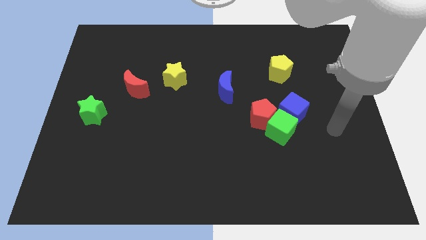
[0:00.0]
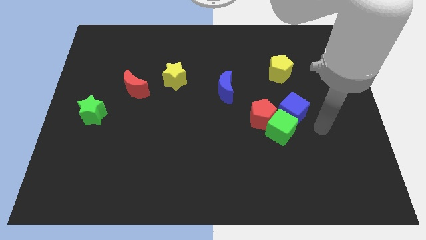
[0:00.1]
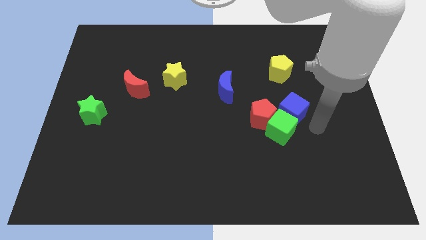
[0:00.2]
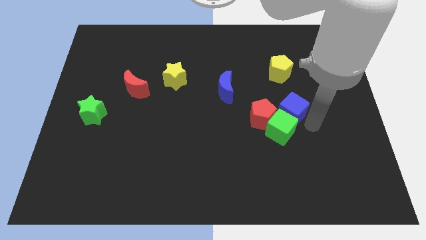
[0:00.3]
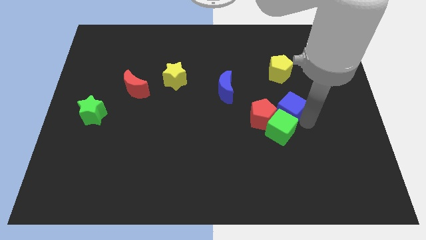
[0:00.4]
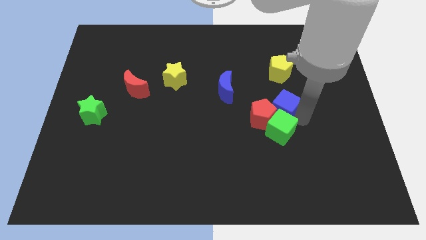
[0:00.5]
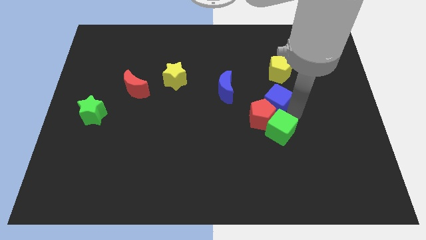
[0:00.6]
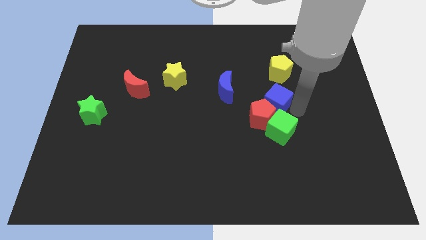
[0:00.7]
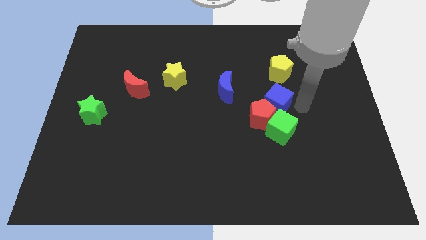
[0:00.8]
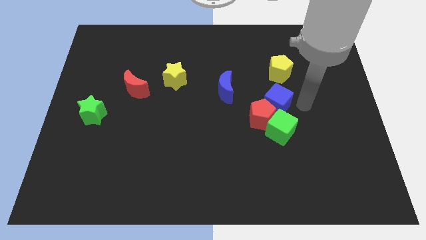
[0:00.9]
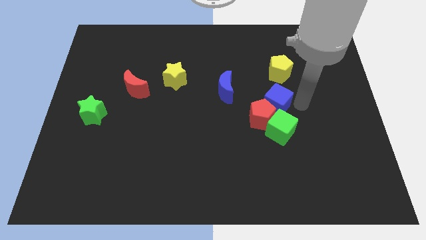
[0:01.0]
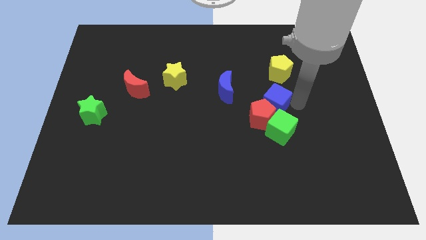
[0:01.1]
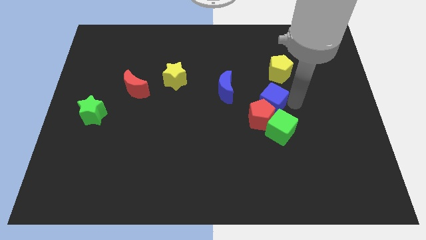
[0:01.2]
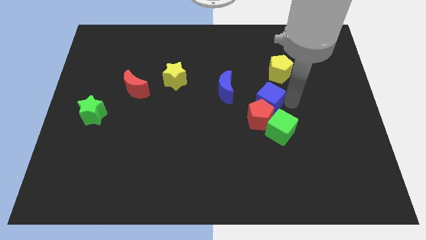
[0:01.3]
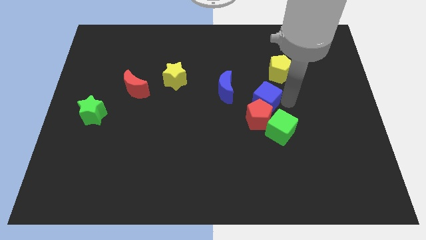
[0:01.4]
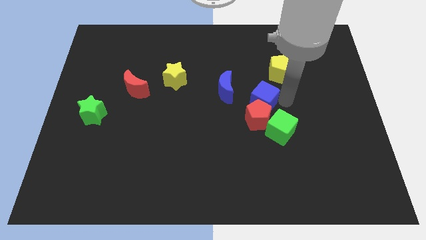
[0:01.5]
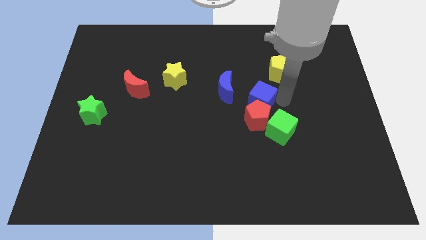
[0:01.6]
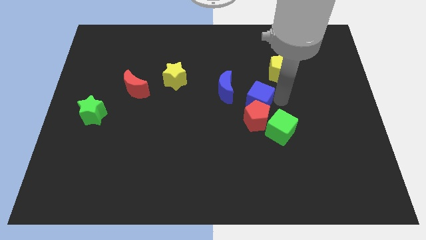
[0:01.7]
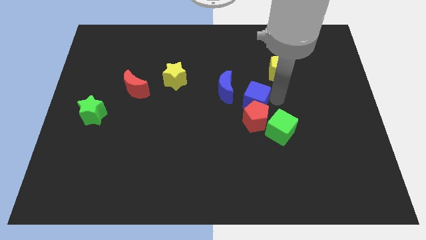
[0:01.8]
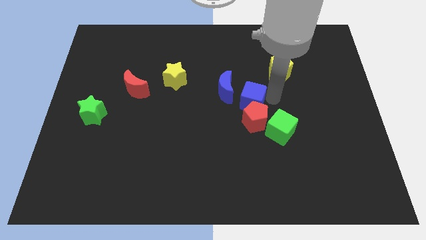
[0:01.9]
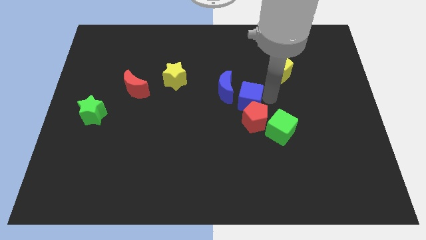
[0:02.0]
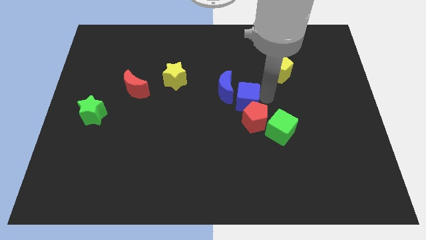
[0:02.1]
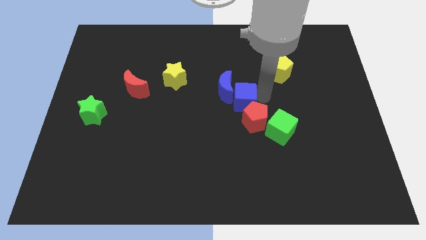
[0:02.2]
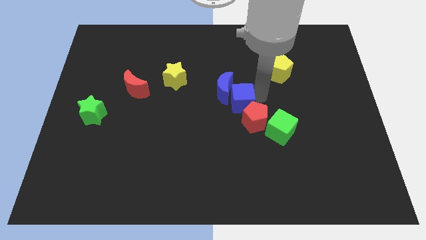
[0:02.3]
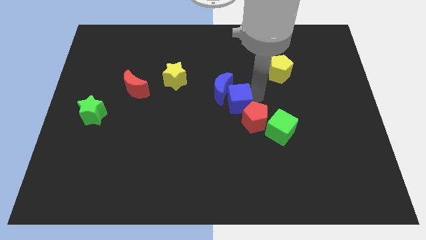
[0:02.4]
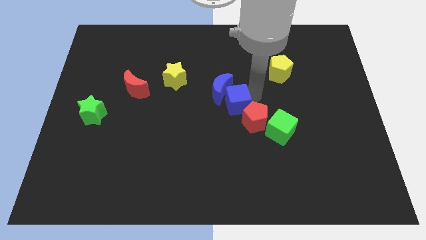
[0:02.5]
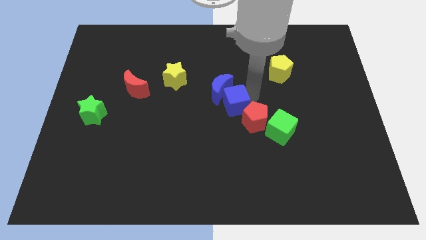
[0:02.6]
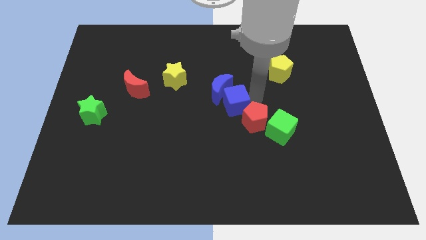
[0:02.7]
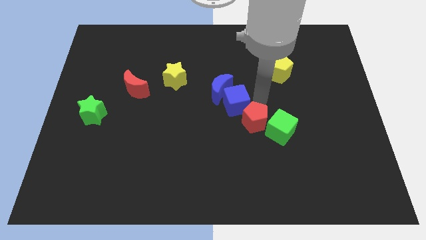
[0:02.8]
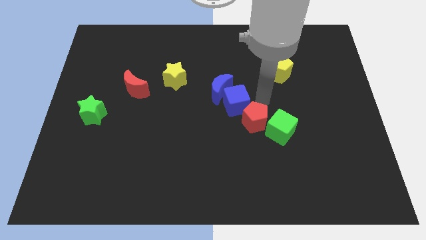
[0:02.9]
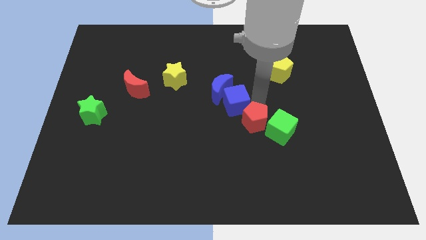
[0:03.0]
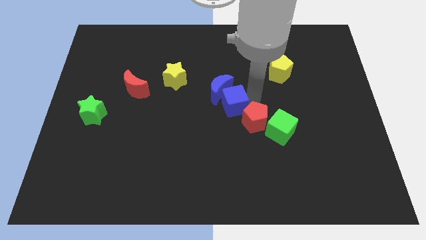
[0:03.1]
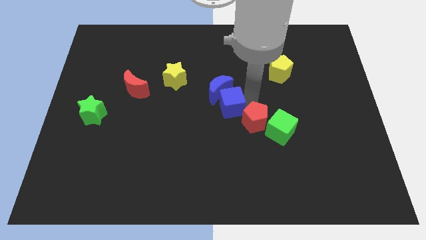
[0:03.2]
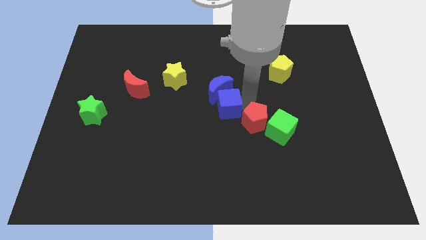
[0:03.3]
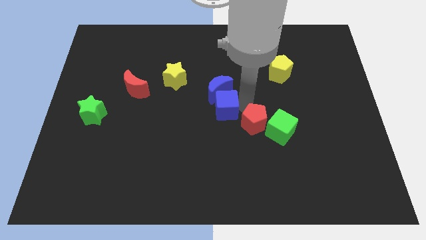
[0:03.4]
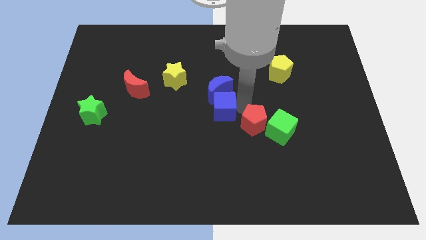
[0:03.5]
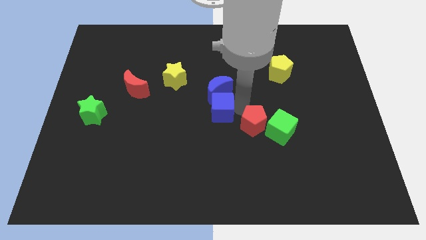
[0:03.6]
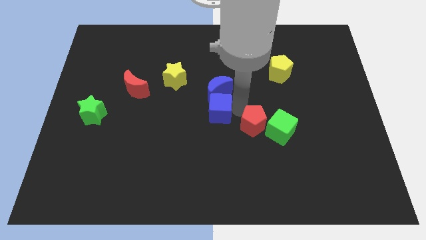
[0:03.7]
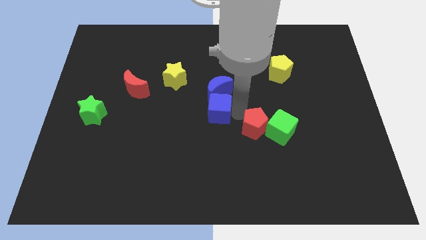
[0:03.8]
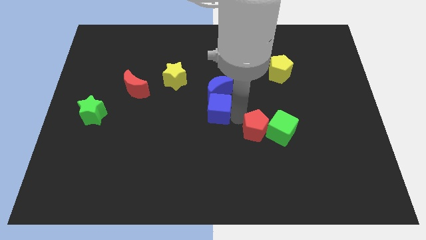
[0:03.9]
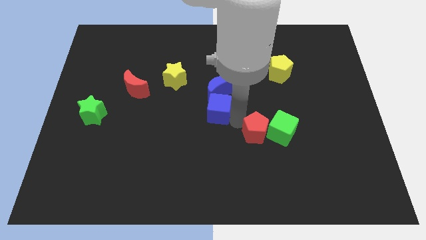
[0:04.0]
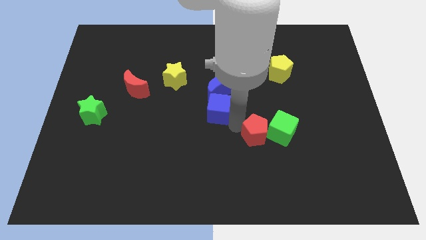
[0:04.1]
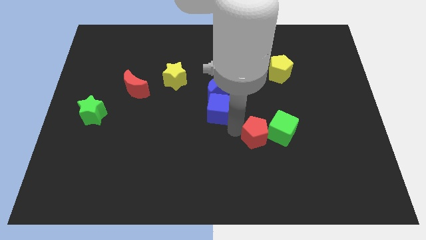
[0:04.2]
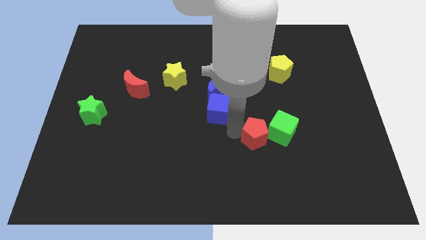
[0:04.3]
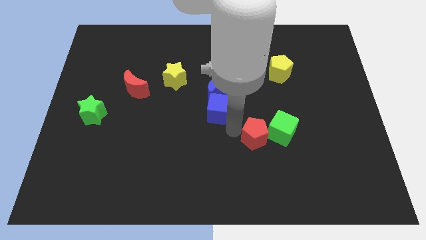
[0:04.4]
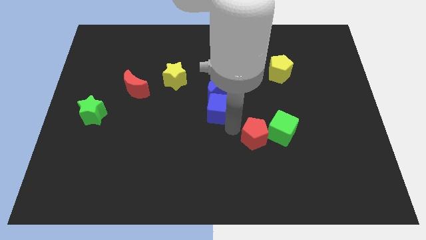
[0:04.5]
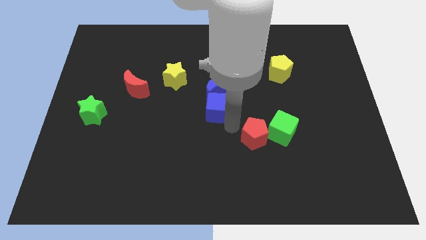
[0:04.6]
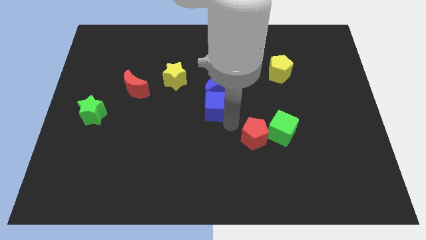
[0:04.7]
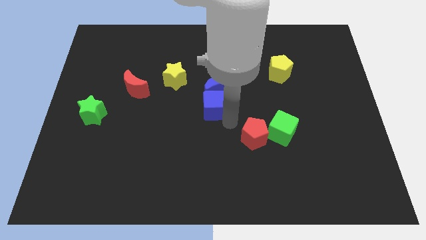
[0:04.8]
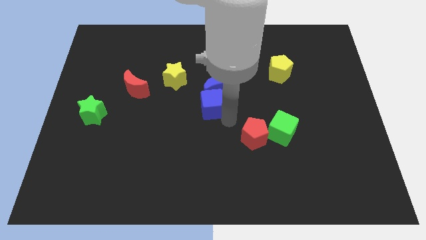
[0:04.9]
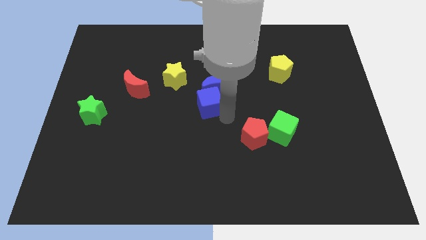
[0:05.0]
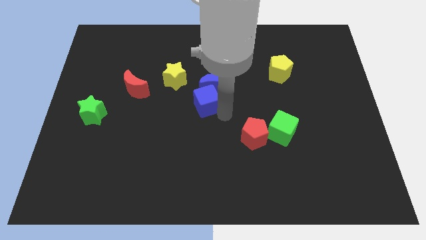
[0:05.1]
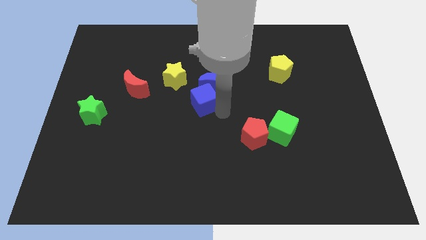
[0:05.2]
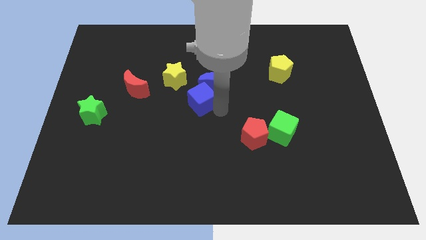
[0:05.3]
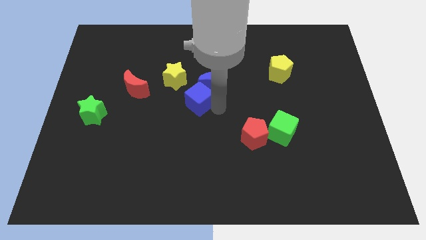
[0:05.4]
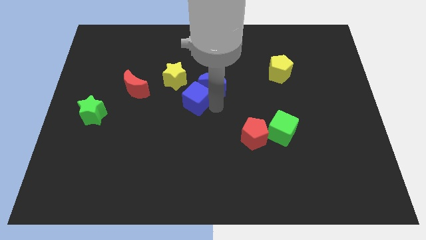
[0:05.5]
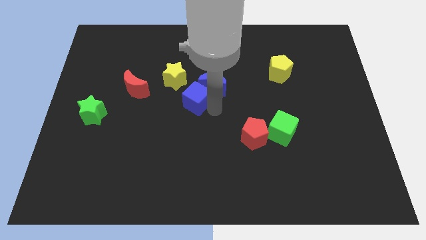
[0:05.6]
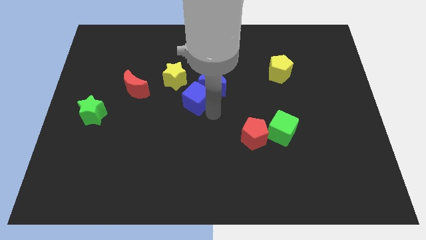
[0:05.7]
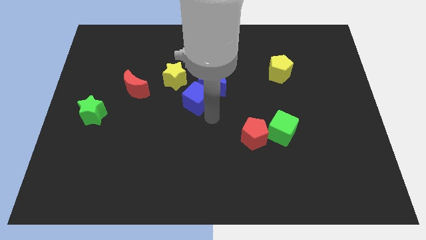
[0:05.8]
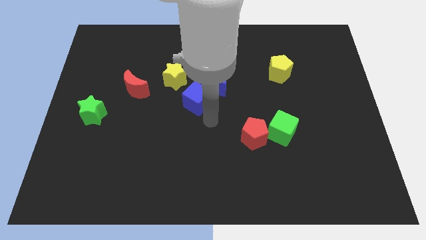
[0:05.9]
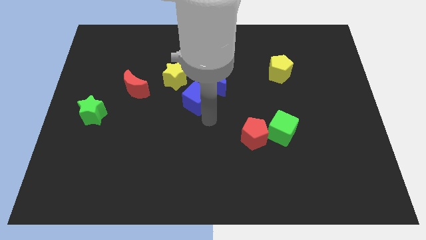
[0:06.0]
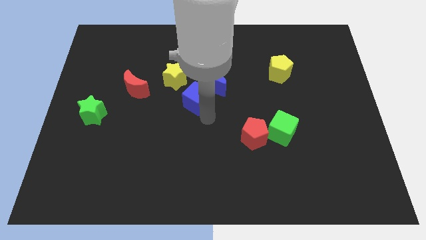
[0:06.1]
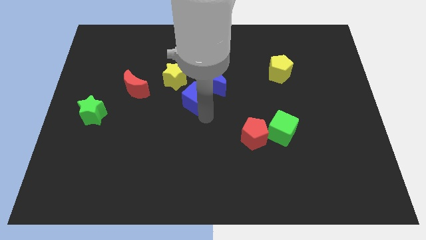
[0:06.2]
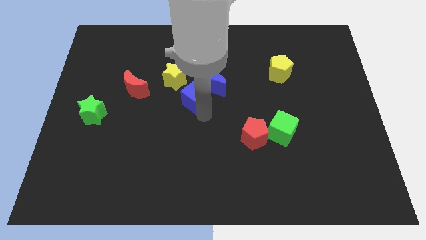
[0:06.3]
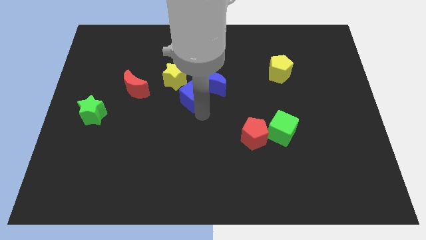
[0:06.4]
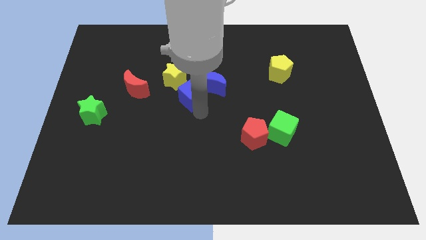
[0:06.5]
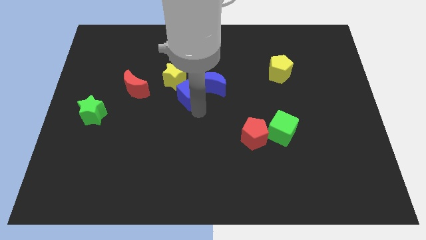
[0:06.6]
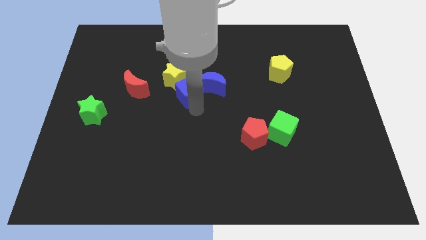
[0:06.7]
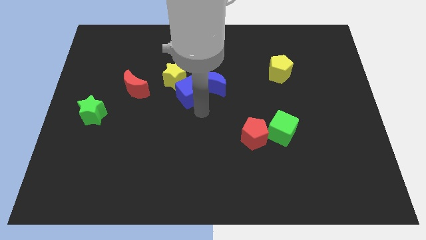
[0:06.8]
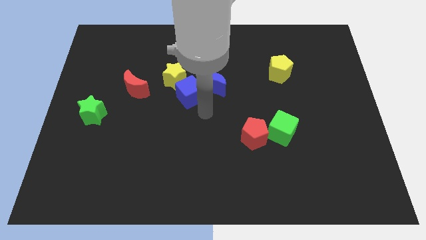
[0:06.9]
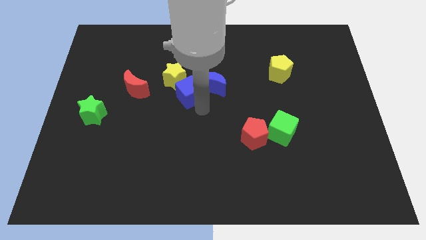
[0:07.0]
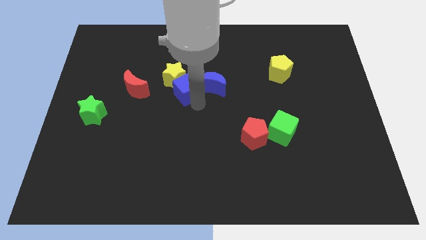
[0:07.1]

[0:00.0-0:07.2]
slide the blue cube next to the yellow star
